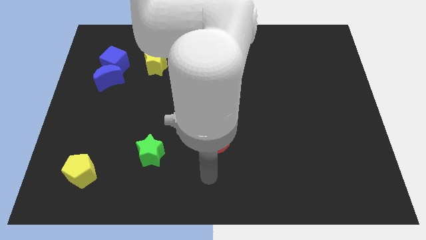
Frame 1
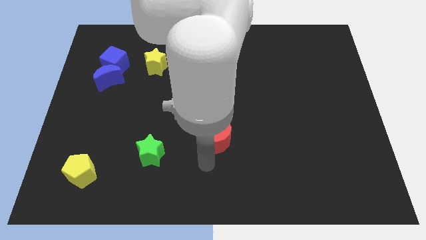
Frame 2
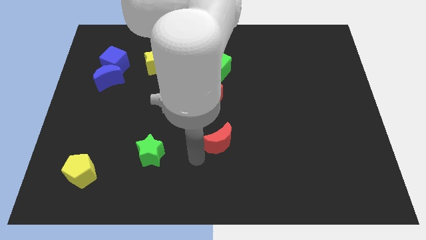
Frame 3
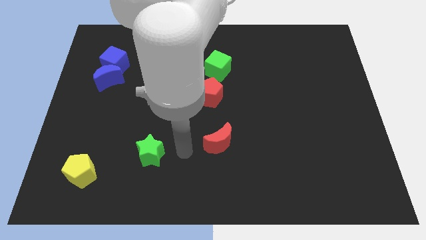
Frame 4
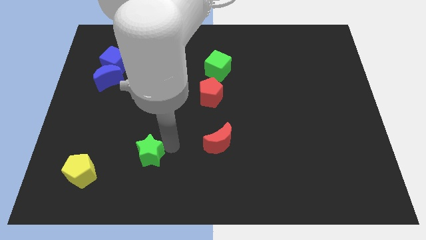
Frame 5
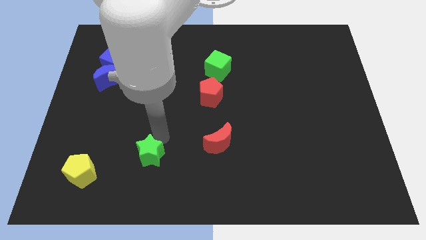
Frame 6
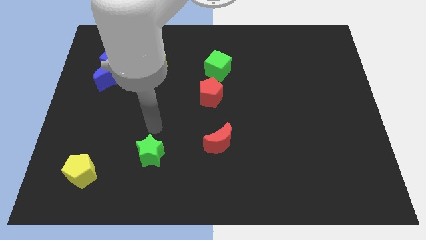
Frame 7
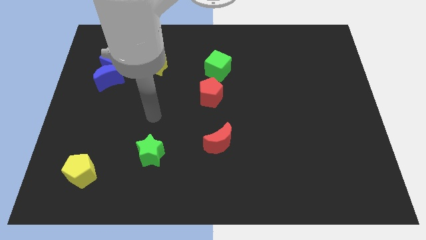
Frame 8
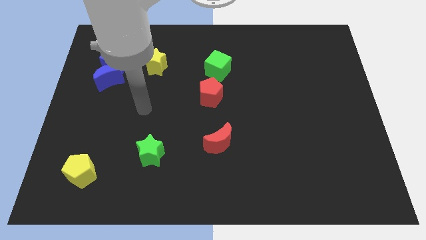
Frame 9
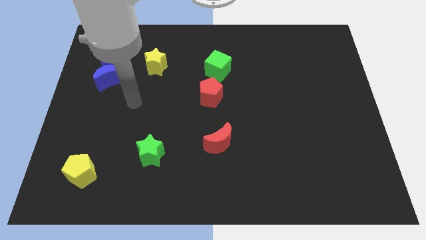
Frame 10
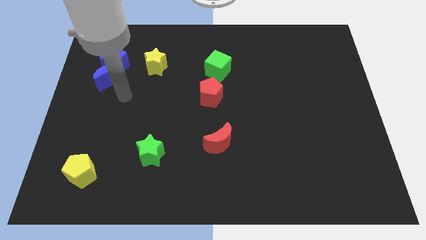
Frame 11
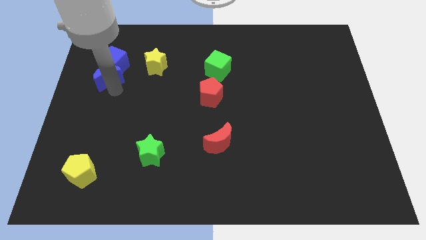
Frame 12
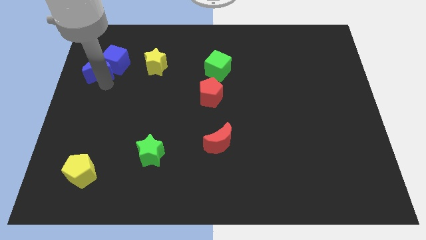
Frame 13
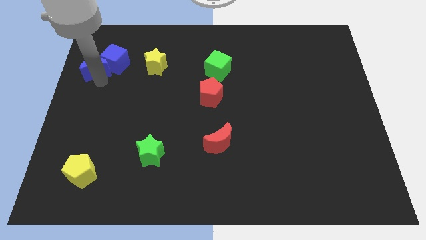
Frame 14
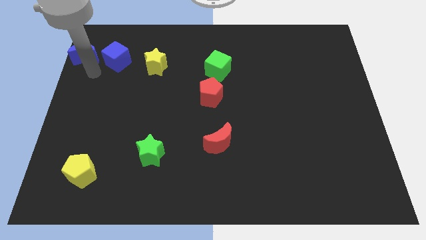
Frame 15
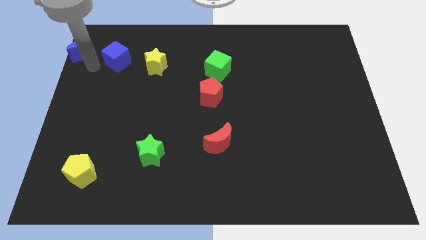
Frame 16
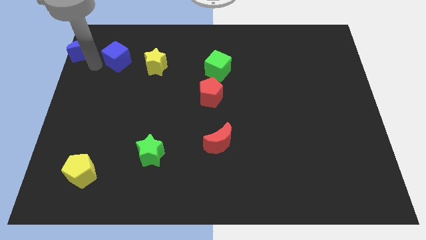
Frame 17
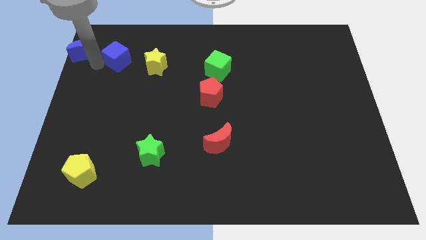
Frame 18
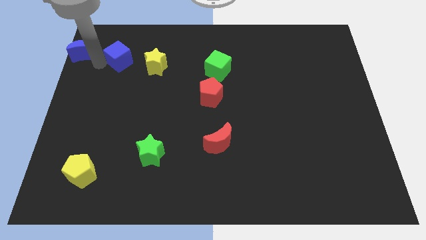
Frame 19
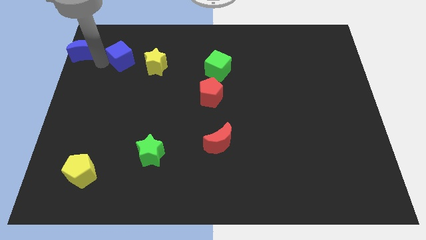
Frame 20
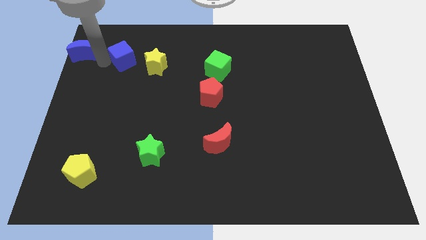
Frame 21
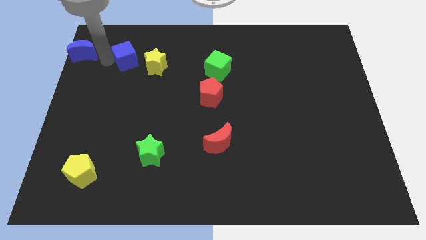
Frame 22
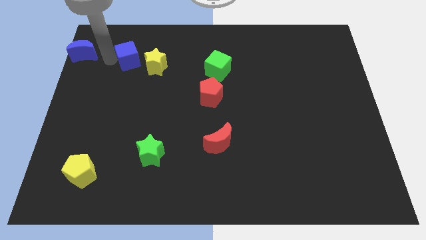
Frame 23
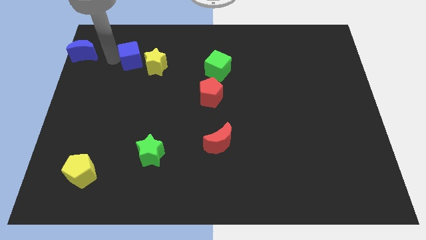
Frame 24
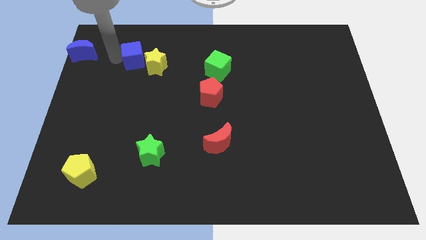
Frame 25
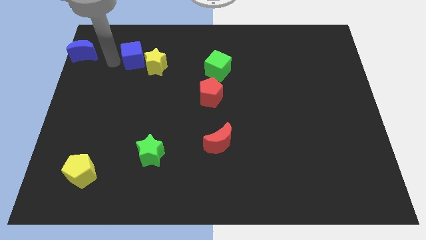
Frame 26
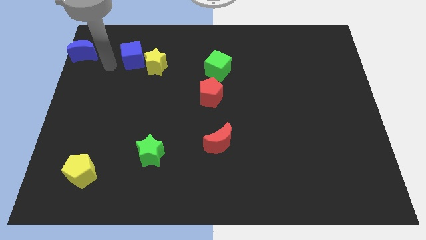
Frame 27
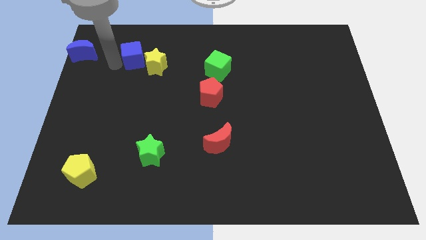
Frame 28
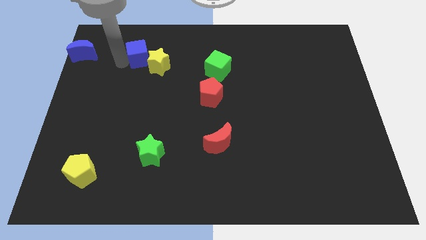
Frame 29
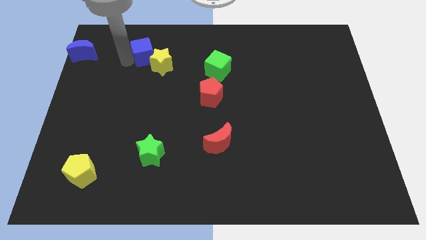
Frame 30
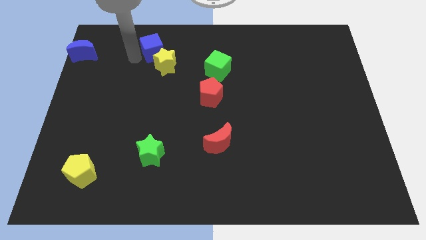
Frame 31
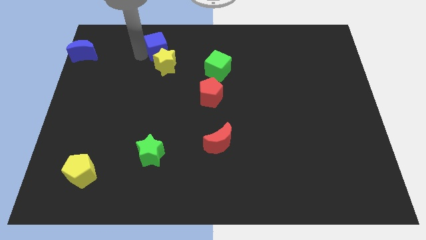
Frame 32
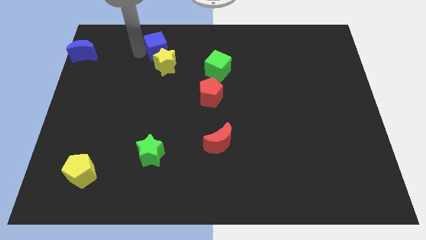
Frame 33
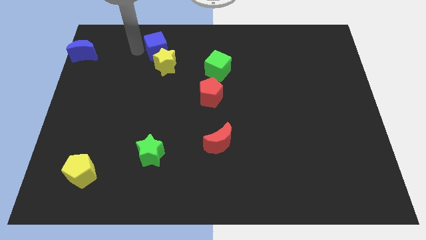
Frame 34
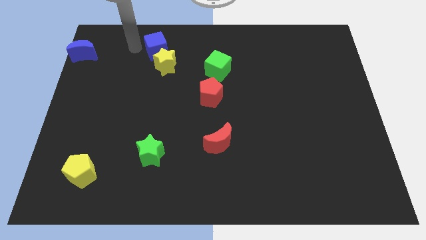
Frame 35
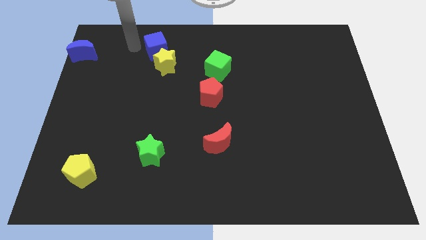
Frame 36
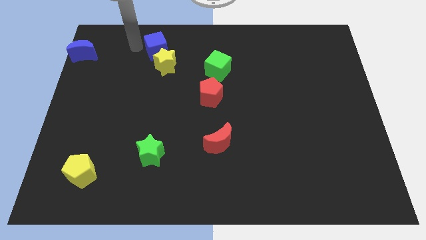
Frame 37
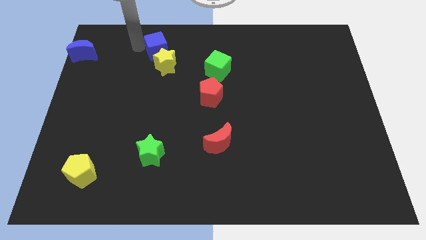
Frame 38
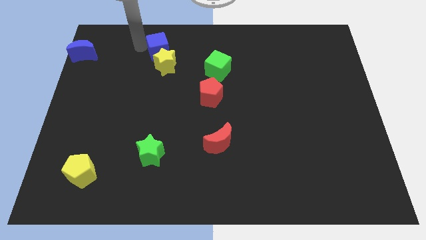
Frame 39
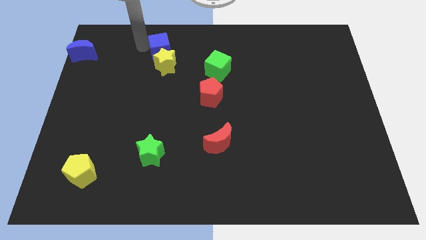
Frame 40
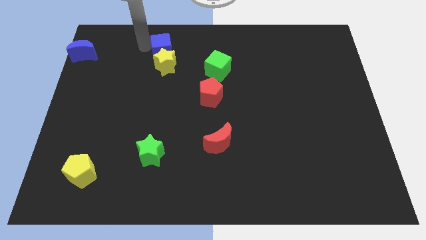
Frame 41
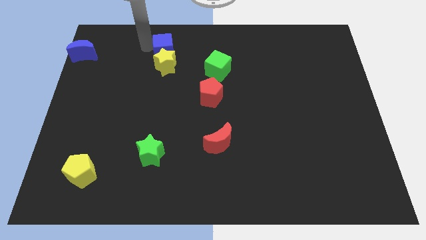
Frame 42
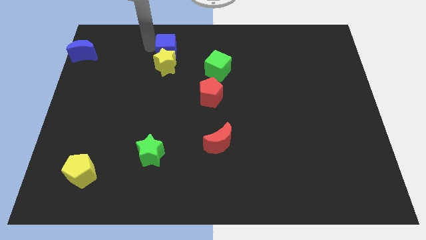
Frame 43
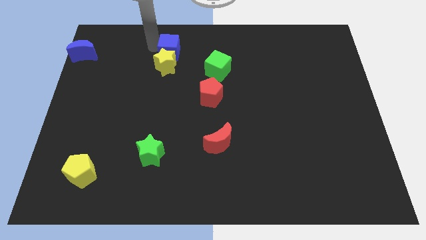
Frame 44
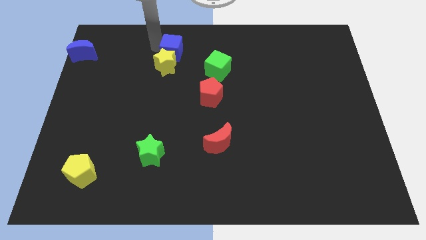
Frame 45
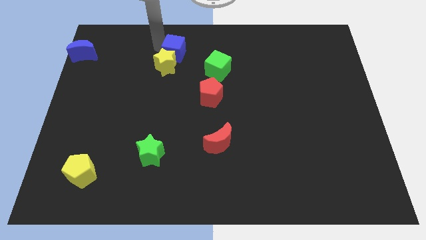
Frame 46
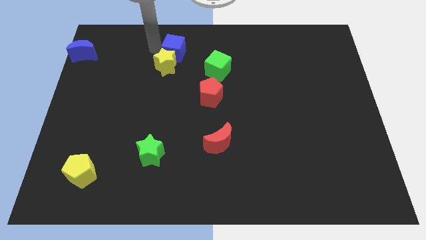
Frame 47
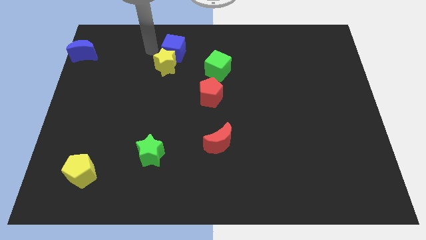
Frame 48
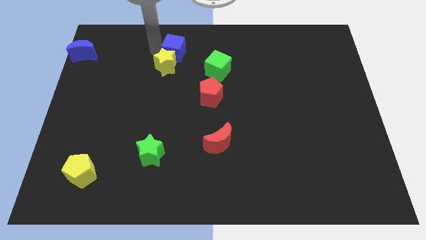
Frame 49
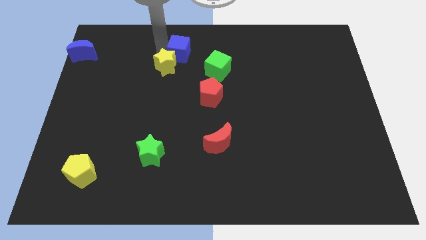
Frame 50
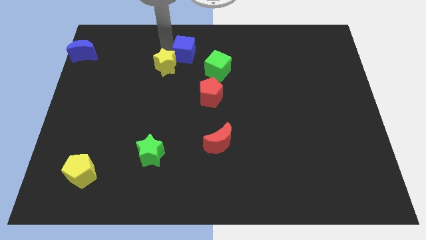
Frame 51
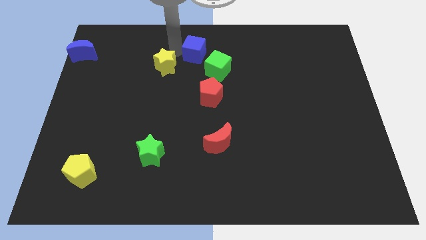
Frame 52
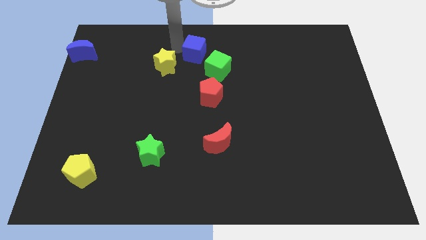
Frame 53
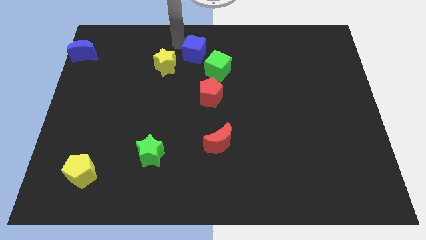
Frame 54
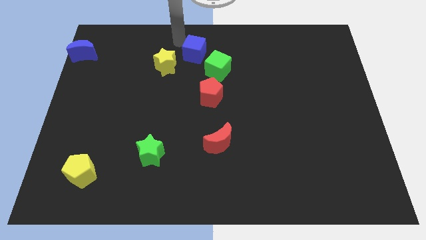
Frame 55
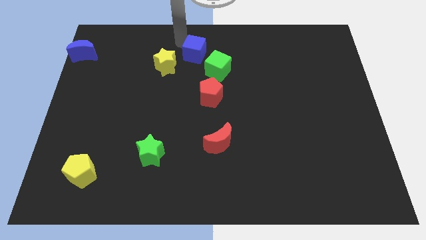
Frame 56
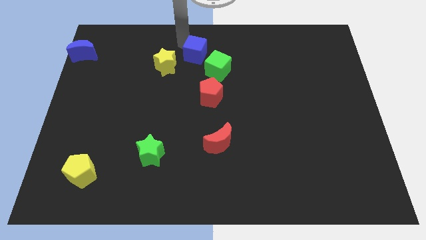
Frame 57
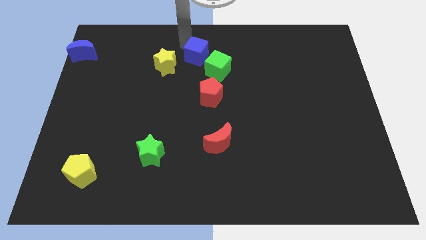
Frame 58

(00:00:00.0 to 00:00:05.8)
push the blue cube to the top side of the red pentagon

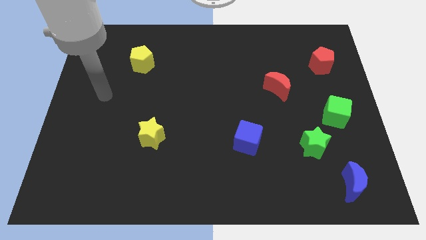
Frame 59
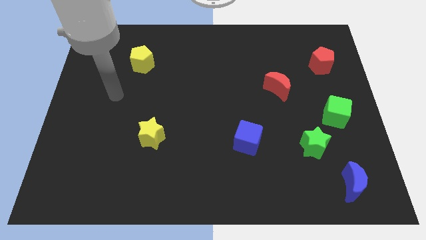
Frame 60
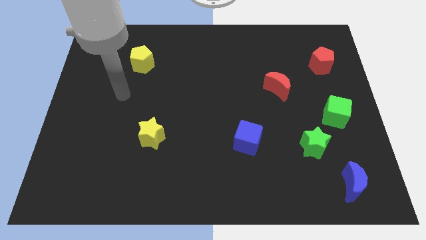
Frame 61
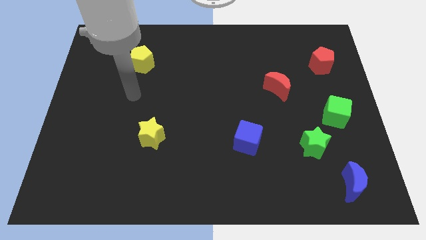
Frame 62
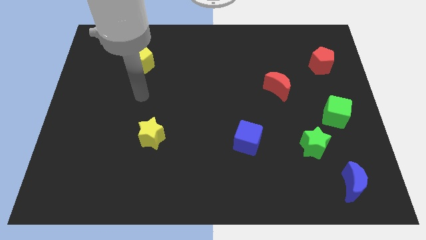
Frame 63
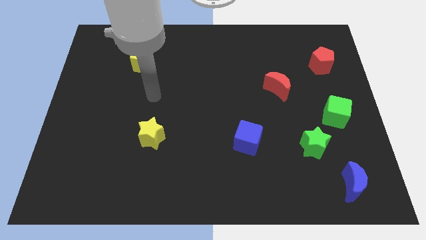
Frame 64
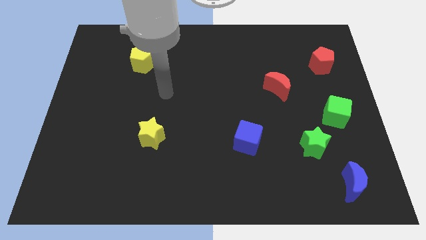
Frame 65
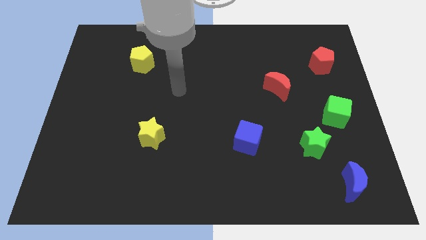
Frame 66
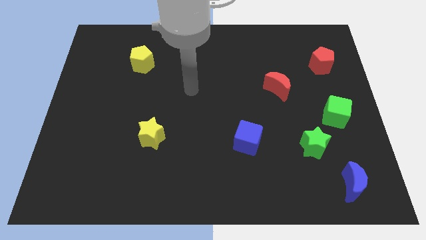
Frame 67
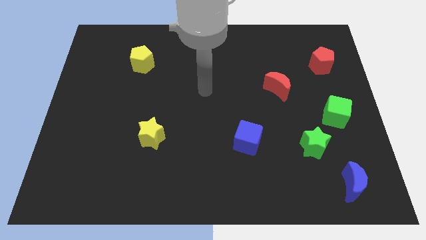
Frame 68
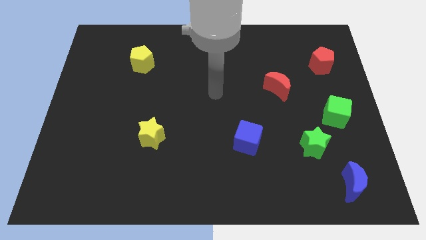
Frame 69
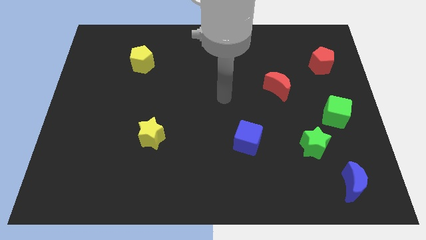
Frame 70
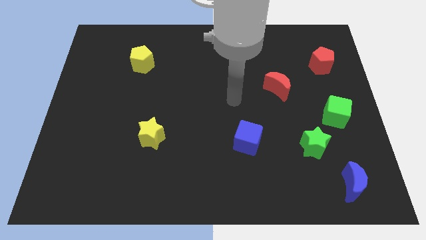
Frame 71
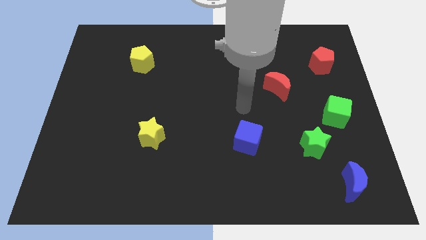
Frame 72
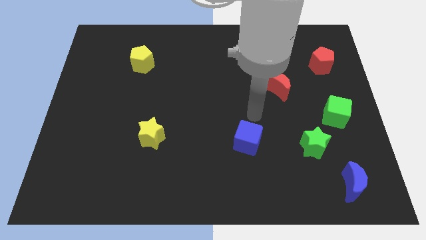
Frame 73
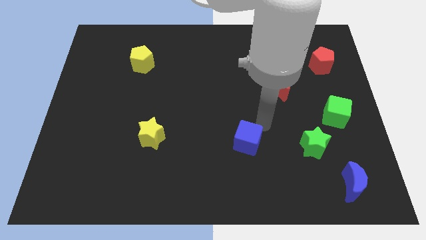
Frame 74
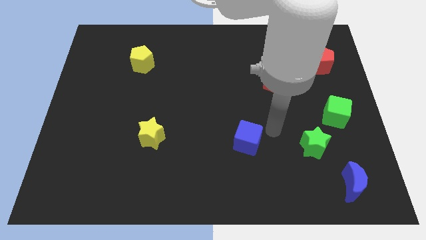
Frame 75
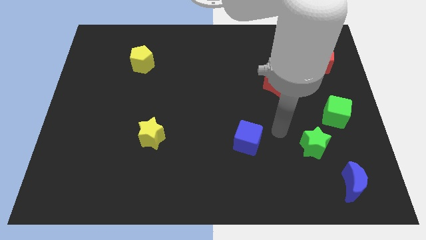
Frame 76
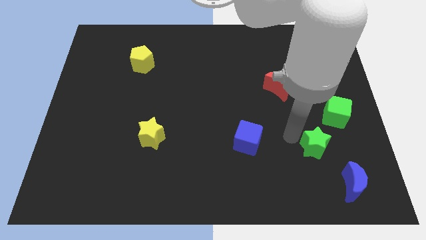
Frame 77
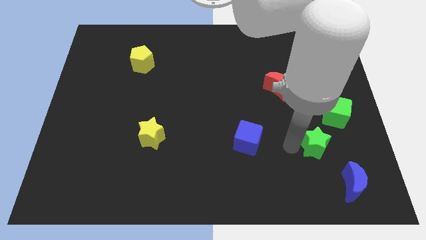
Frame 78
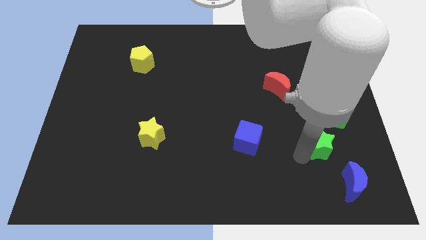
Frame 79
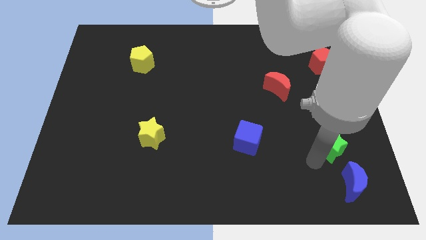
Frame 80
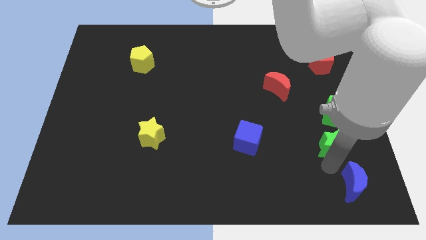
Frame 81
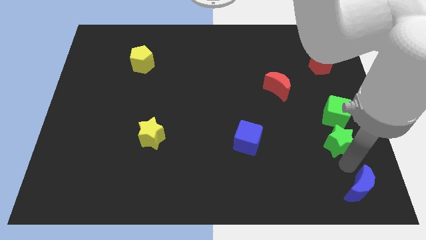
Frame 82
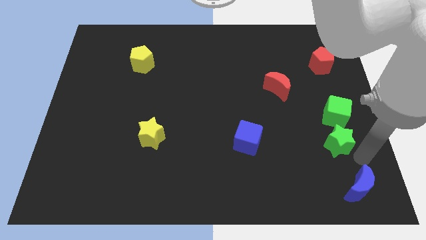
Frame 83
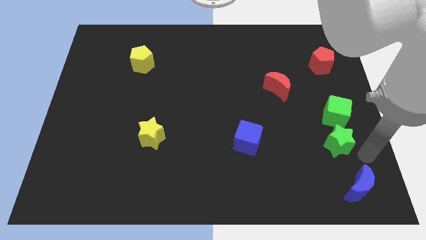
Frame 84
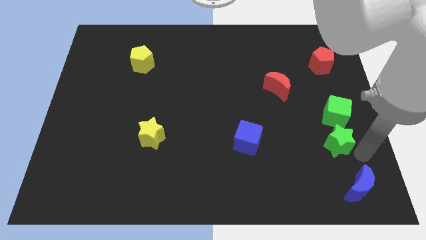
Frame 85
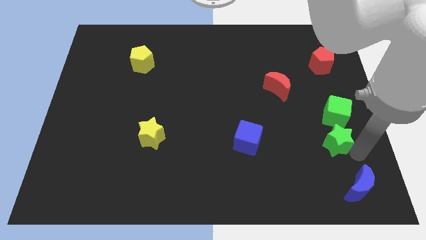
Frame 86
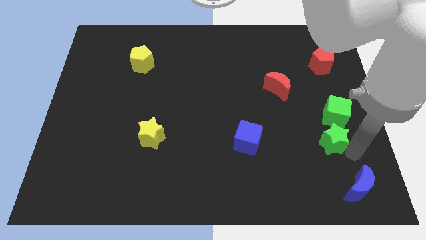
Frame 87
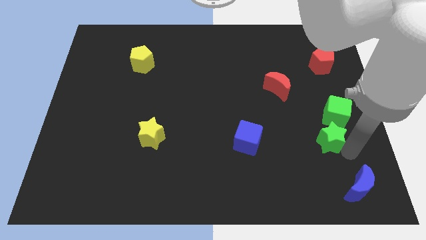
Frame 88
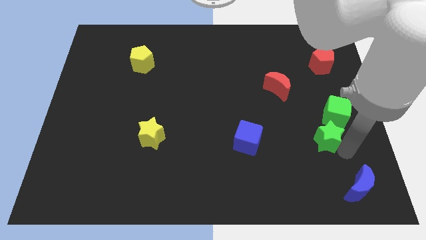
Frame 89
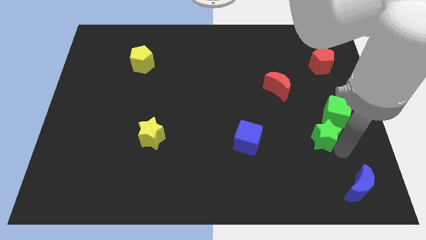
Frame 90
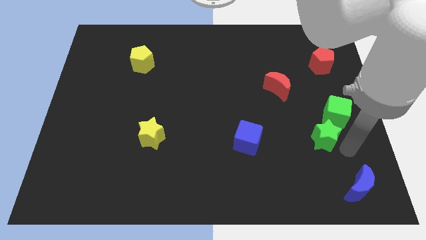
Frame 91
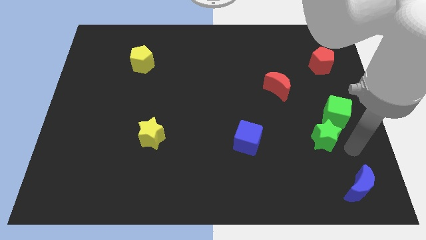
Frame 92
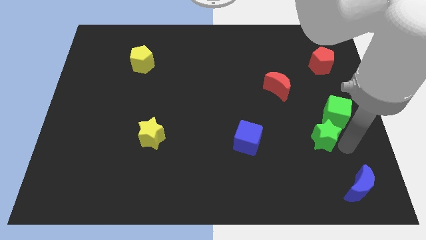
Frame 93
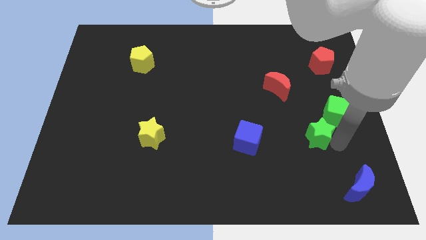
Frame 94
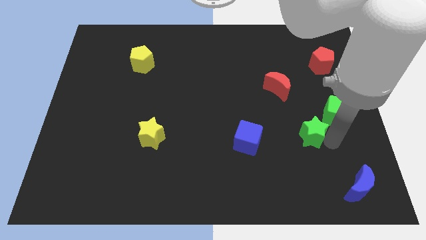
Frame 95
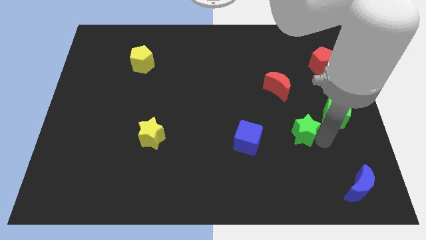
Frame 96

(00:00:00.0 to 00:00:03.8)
slide the green star to the left of the green cube
